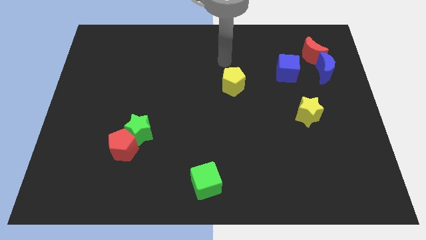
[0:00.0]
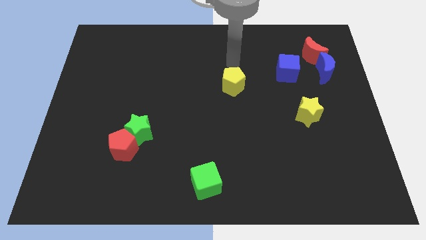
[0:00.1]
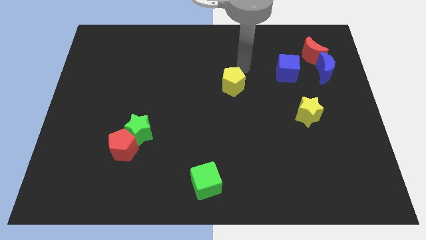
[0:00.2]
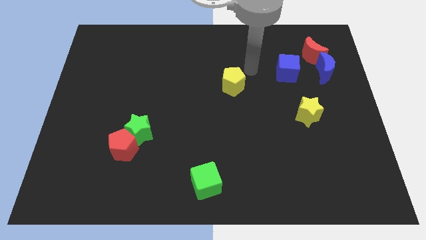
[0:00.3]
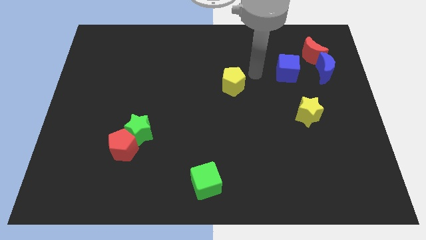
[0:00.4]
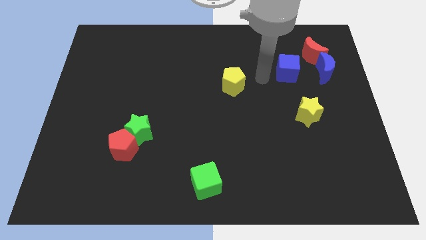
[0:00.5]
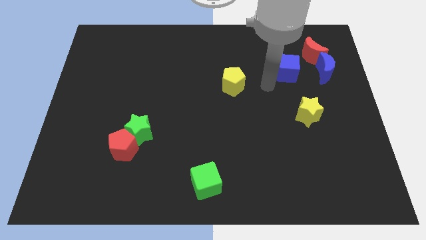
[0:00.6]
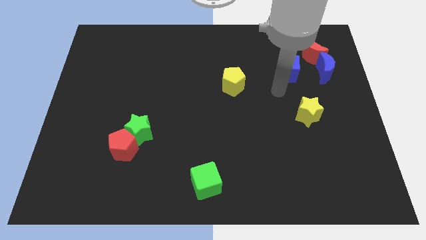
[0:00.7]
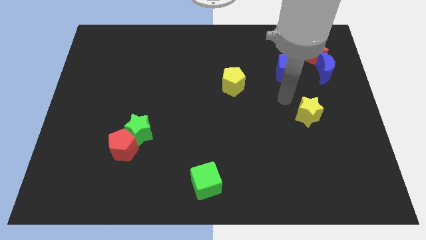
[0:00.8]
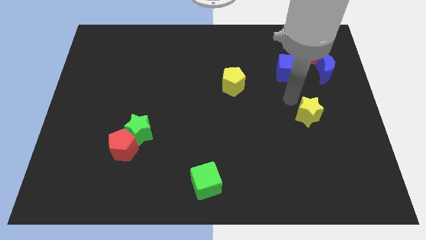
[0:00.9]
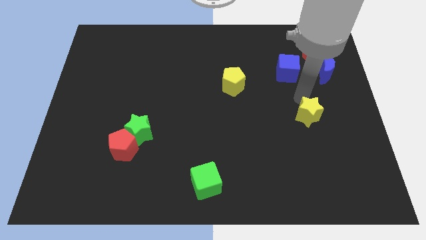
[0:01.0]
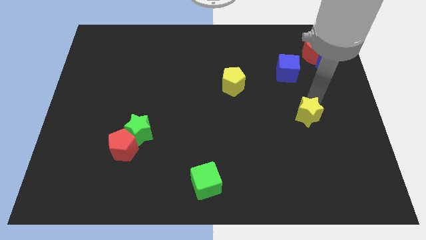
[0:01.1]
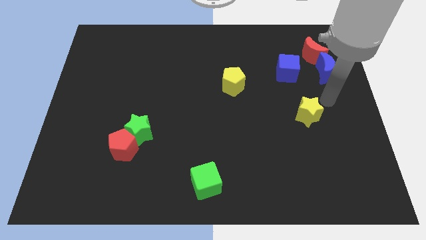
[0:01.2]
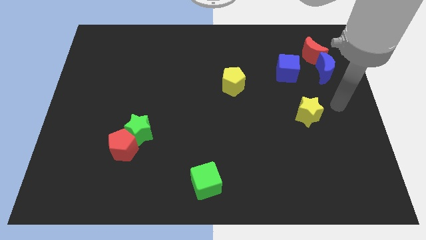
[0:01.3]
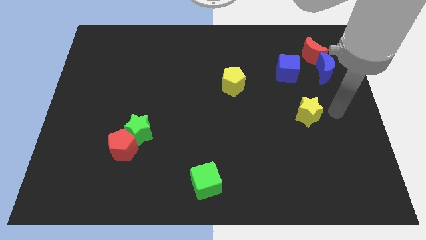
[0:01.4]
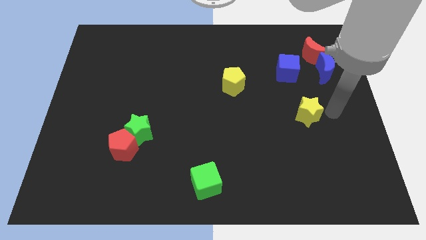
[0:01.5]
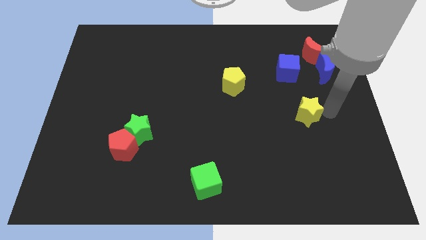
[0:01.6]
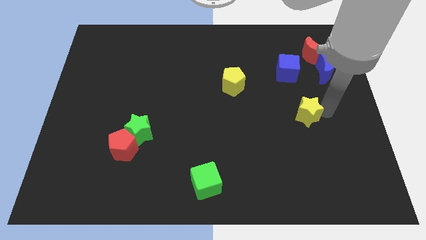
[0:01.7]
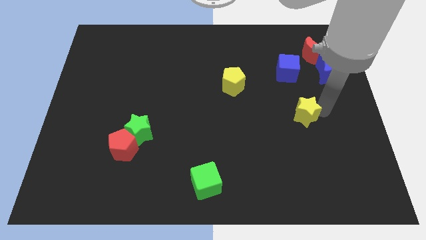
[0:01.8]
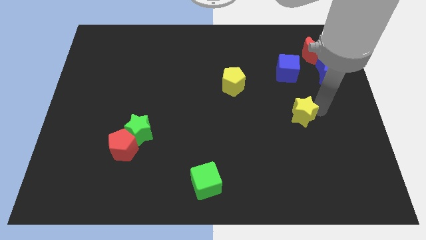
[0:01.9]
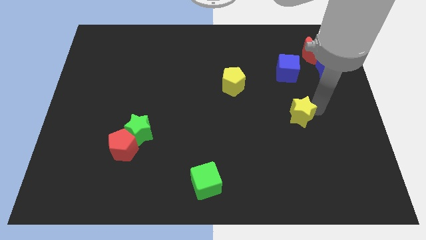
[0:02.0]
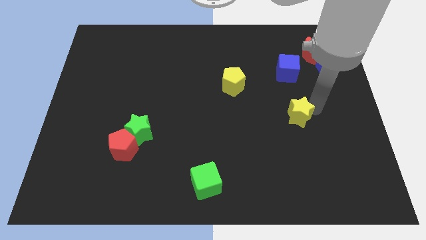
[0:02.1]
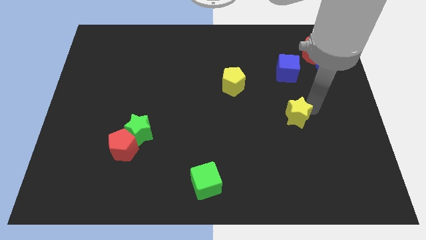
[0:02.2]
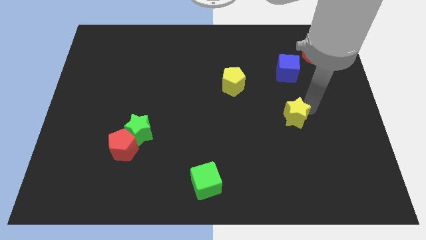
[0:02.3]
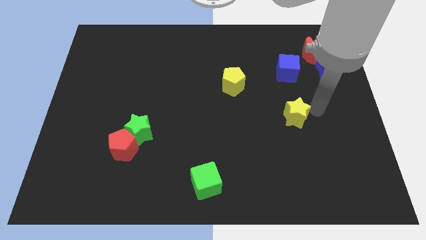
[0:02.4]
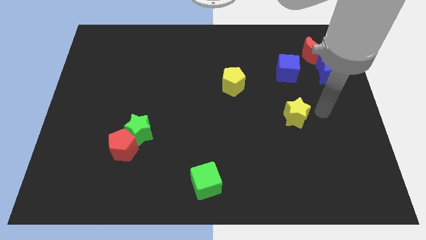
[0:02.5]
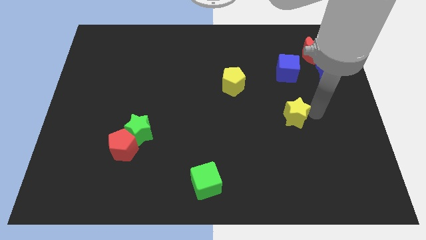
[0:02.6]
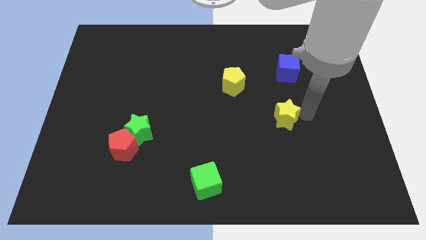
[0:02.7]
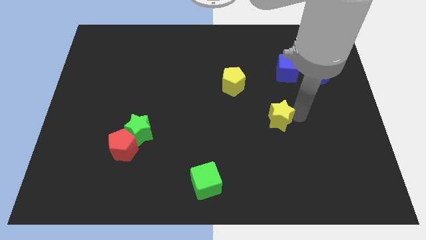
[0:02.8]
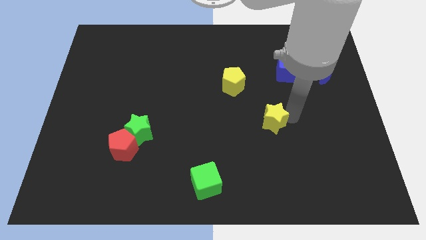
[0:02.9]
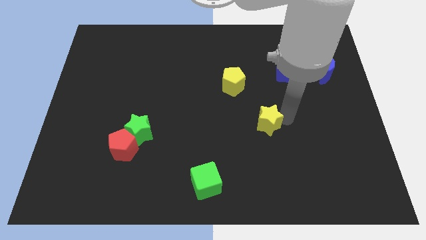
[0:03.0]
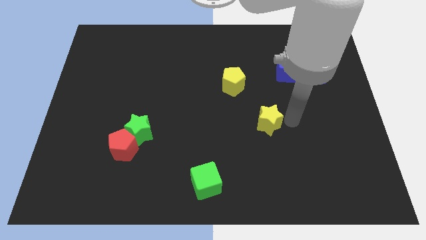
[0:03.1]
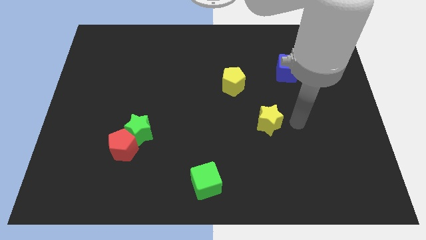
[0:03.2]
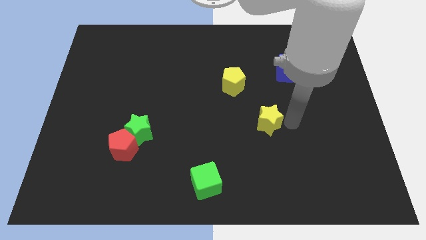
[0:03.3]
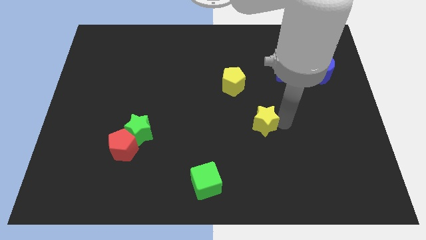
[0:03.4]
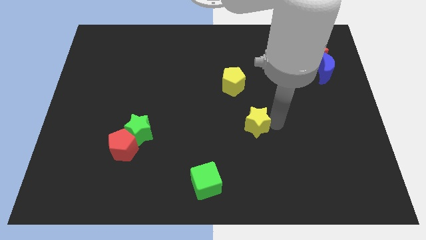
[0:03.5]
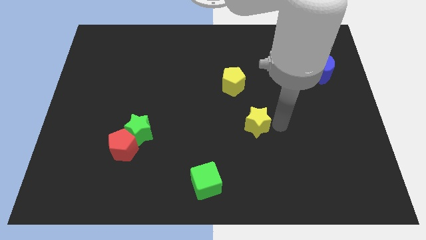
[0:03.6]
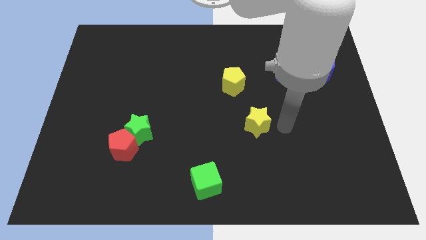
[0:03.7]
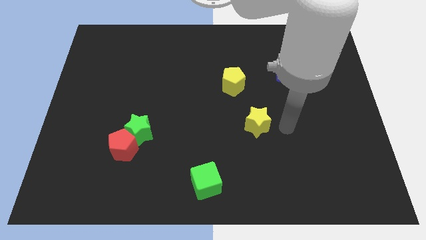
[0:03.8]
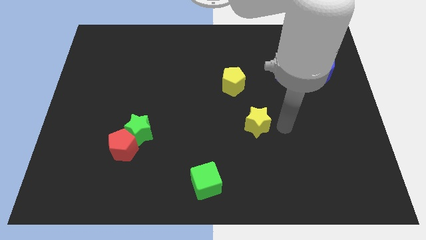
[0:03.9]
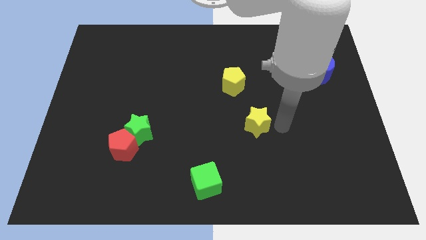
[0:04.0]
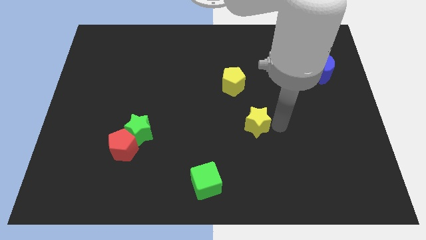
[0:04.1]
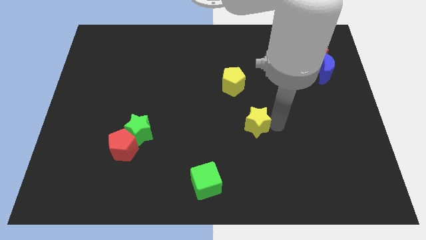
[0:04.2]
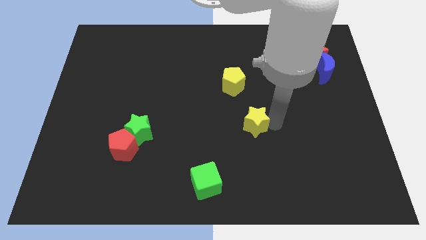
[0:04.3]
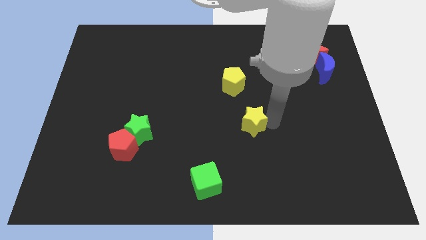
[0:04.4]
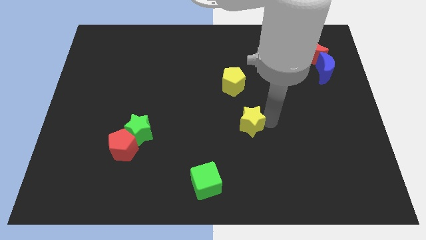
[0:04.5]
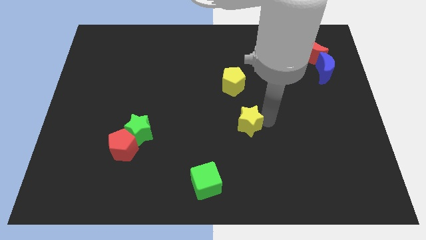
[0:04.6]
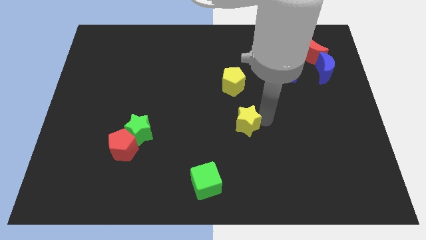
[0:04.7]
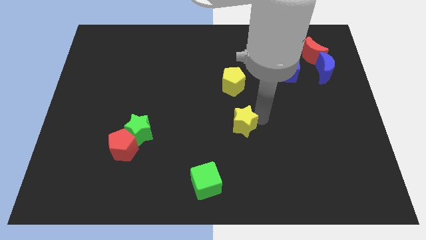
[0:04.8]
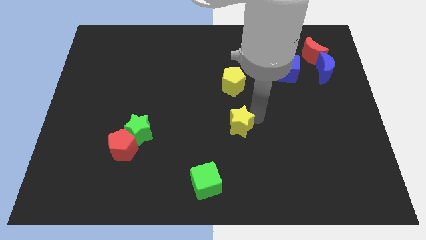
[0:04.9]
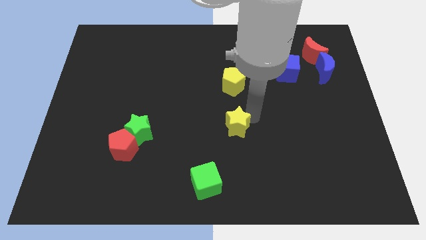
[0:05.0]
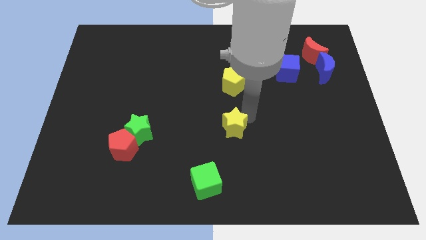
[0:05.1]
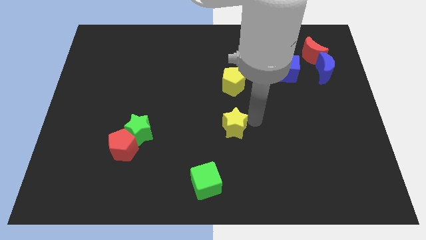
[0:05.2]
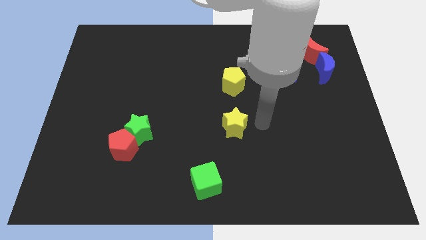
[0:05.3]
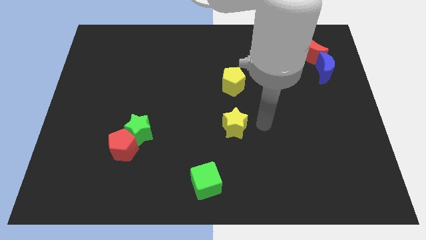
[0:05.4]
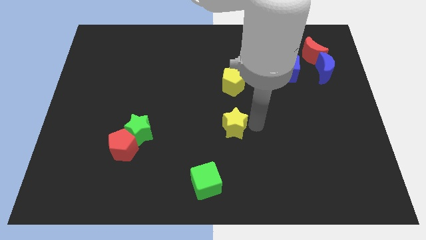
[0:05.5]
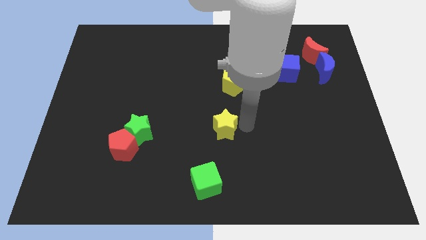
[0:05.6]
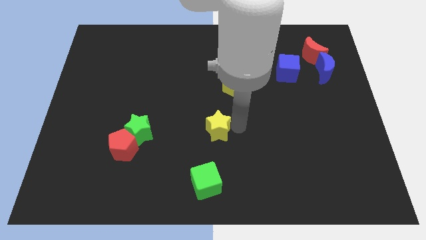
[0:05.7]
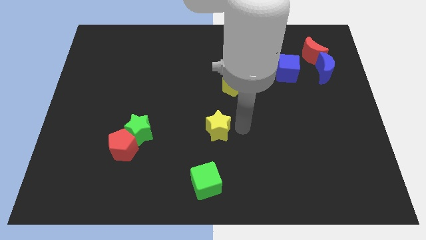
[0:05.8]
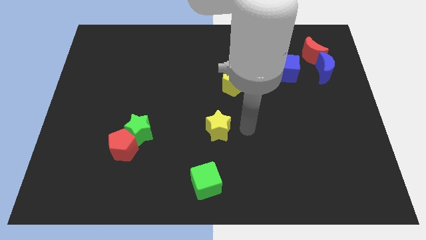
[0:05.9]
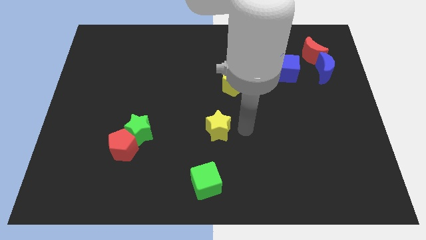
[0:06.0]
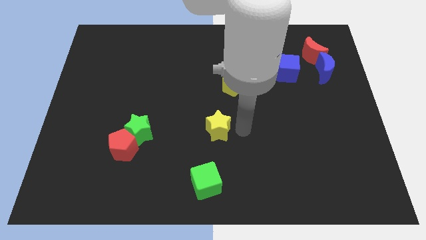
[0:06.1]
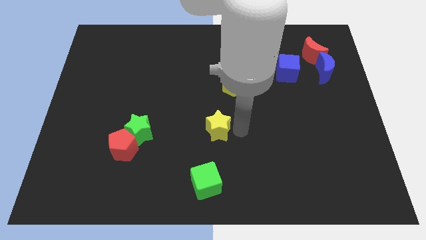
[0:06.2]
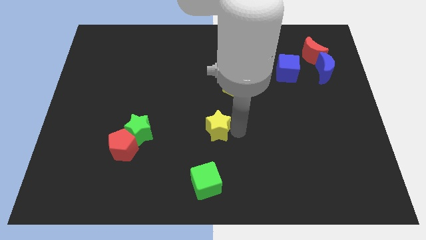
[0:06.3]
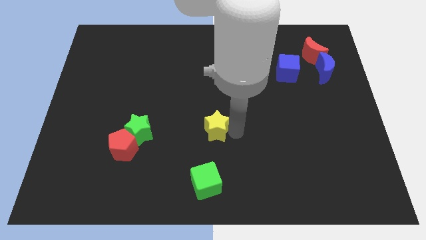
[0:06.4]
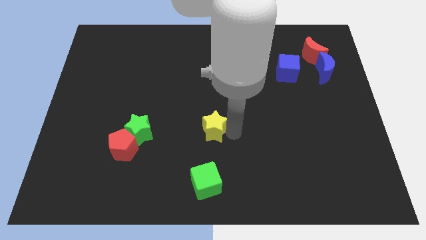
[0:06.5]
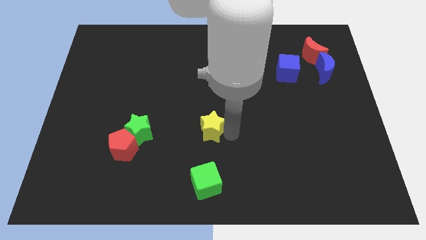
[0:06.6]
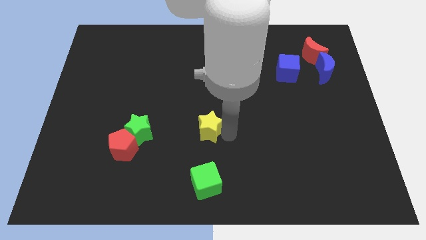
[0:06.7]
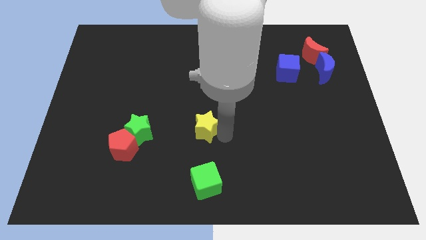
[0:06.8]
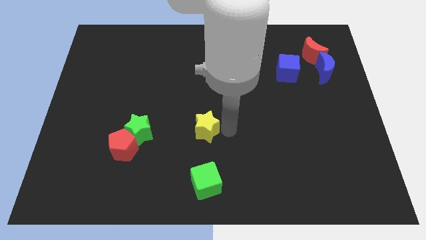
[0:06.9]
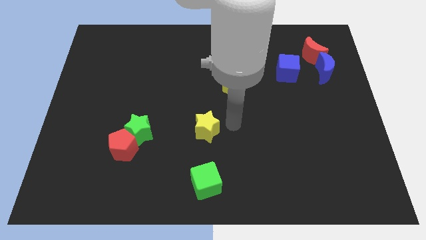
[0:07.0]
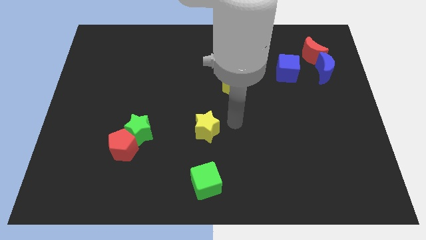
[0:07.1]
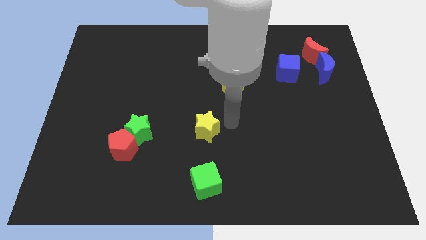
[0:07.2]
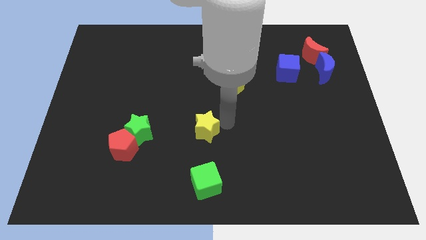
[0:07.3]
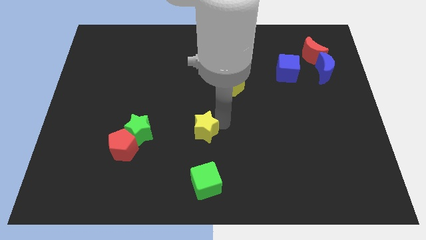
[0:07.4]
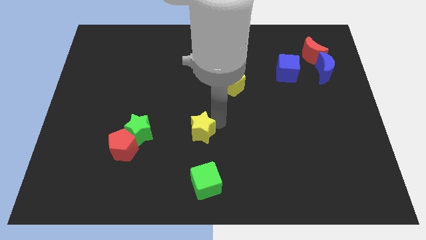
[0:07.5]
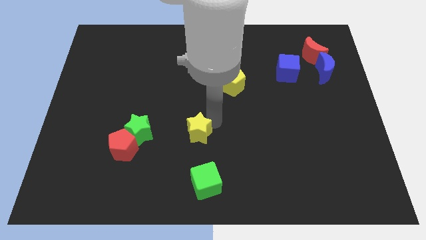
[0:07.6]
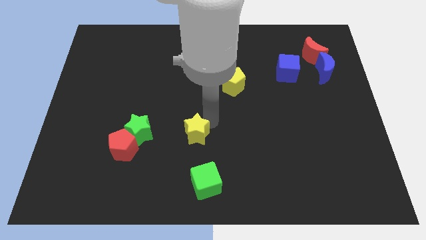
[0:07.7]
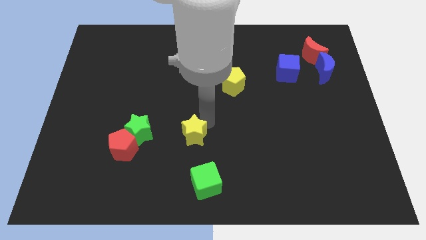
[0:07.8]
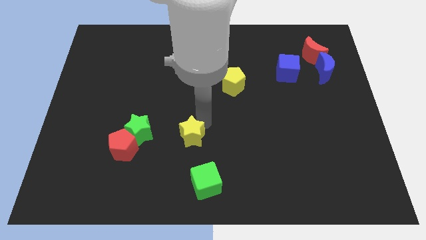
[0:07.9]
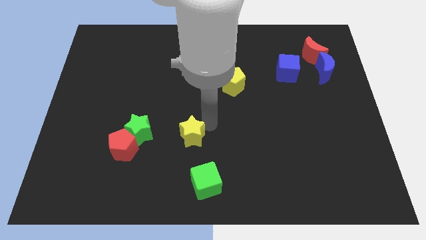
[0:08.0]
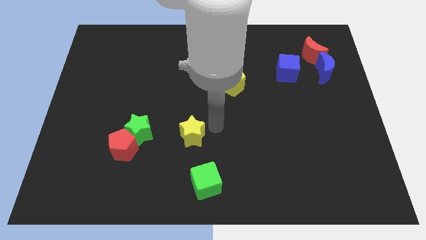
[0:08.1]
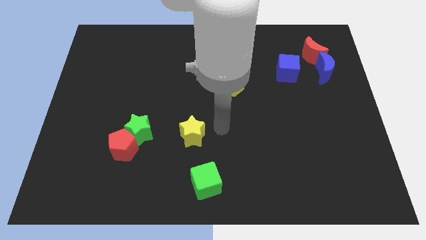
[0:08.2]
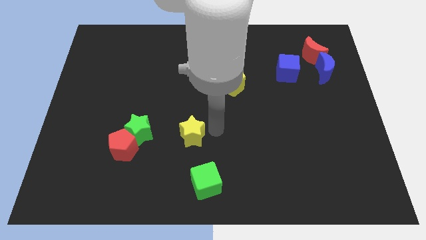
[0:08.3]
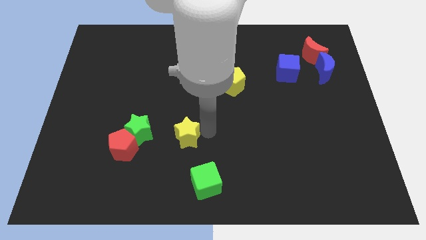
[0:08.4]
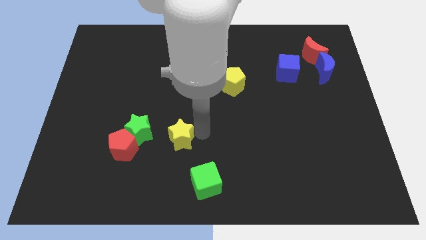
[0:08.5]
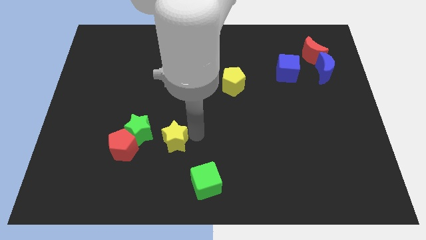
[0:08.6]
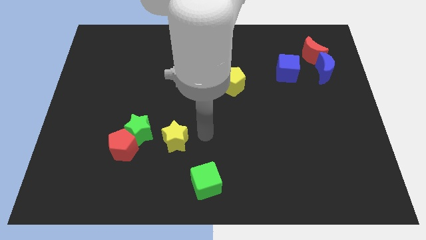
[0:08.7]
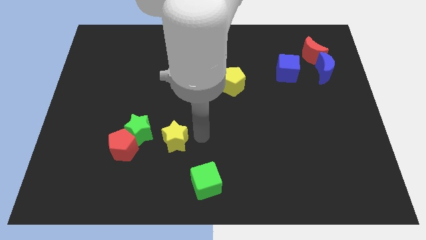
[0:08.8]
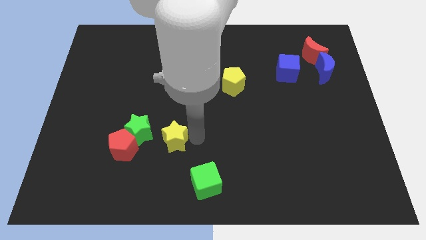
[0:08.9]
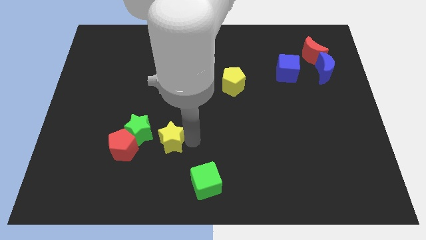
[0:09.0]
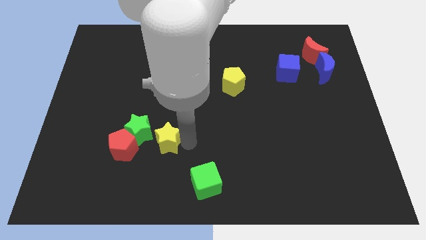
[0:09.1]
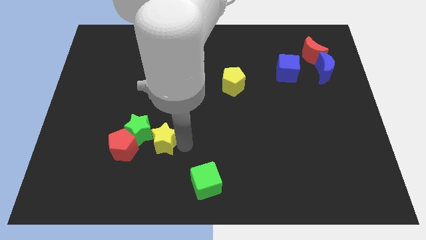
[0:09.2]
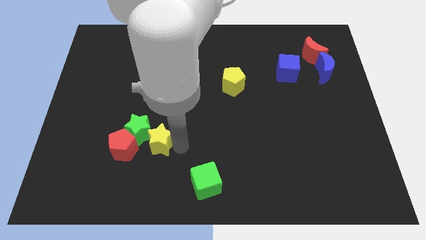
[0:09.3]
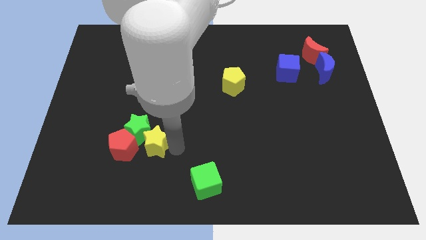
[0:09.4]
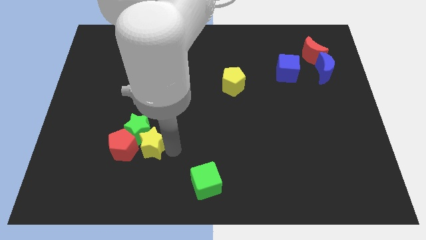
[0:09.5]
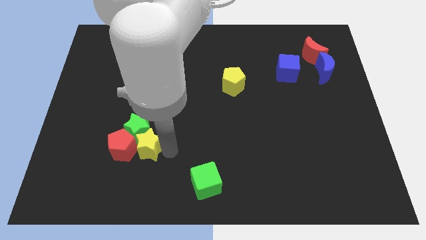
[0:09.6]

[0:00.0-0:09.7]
slide the yellow star to the red pentagon
